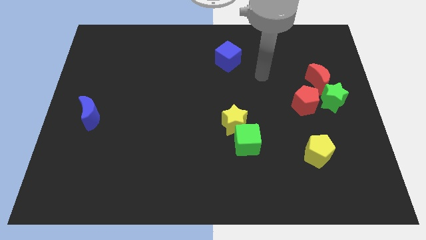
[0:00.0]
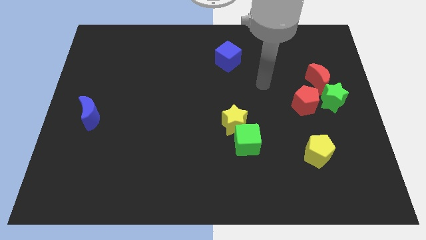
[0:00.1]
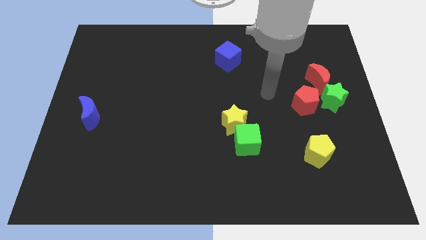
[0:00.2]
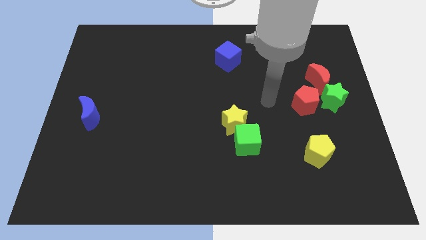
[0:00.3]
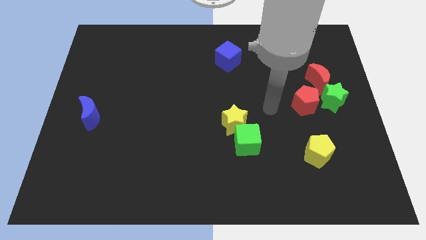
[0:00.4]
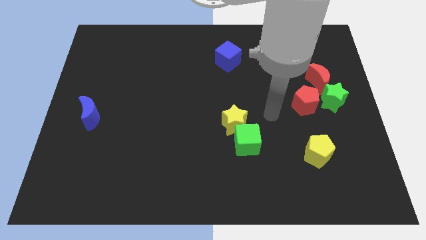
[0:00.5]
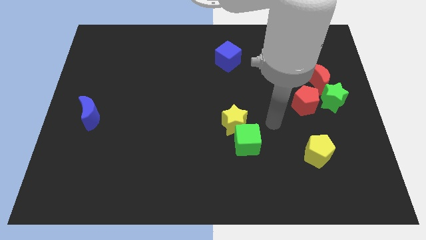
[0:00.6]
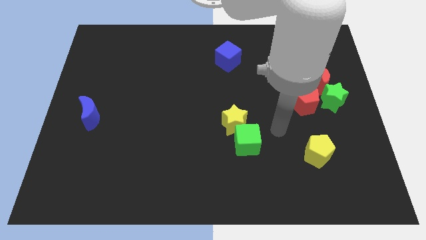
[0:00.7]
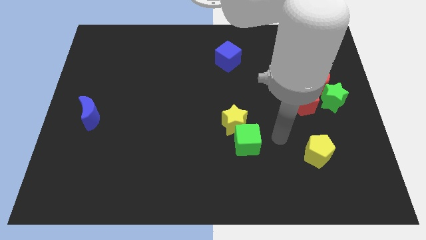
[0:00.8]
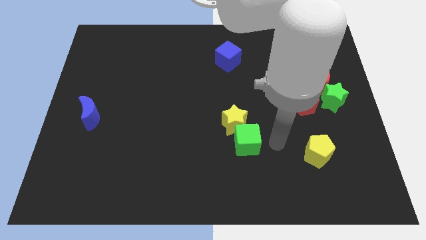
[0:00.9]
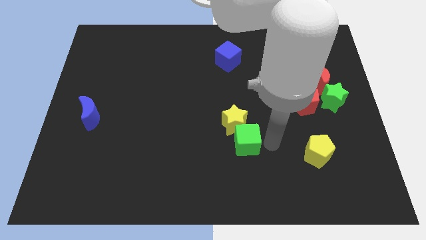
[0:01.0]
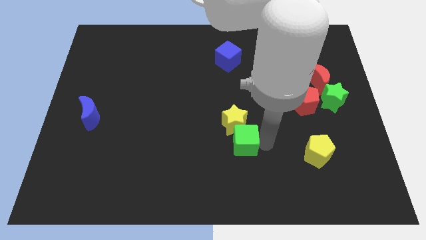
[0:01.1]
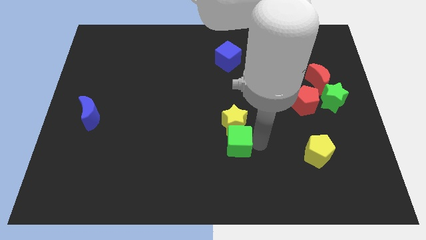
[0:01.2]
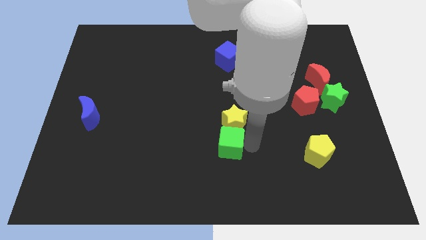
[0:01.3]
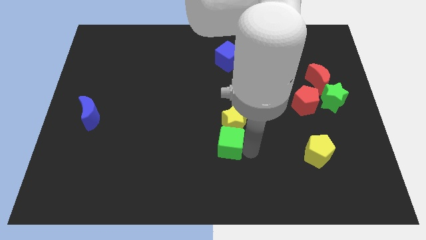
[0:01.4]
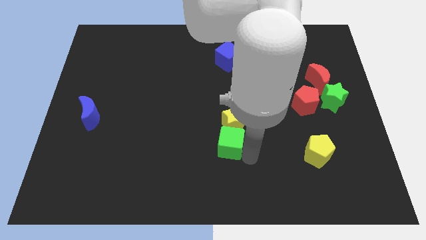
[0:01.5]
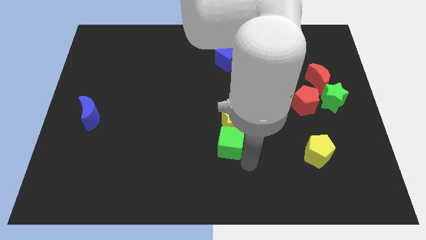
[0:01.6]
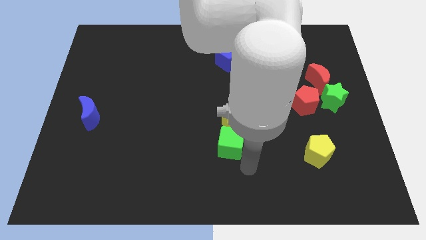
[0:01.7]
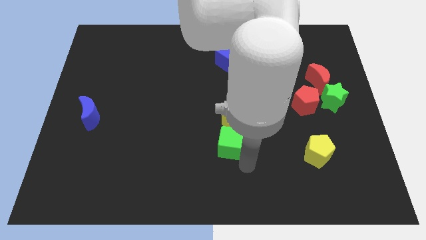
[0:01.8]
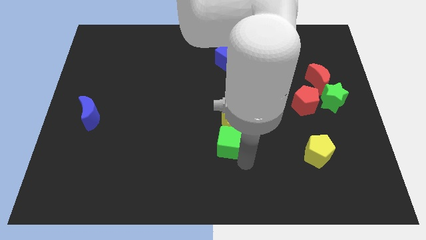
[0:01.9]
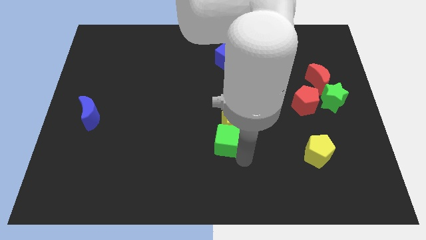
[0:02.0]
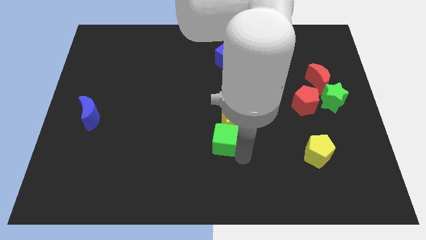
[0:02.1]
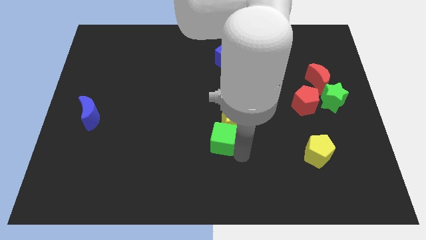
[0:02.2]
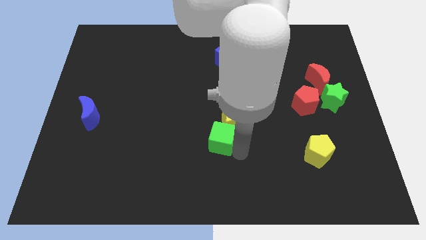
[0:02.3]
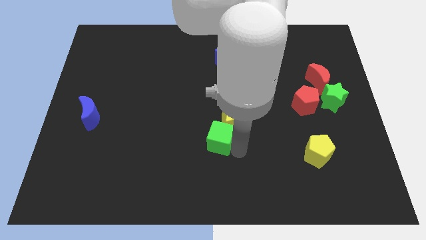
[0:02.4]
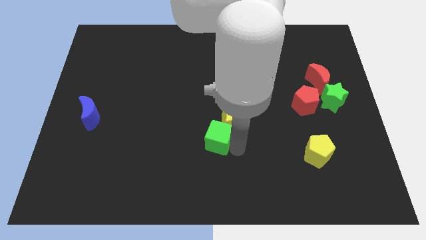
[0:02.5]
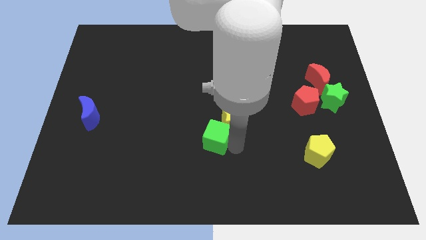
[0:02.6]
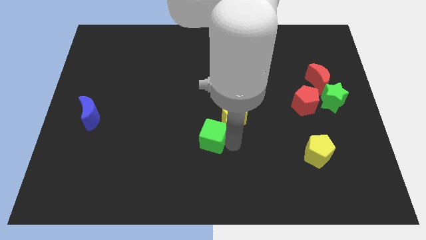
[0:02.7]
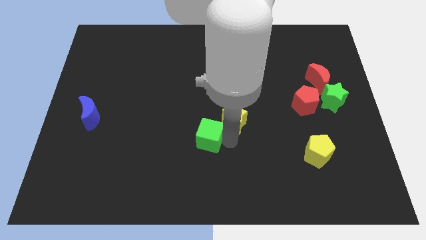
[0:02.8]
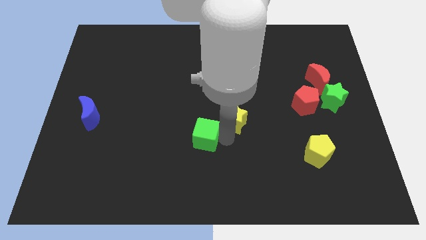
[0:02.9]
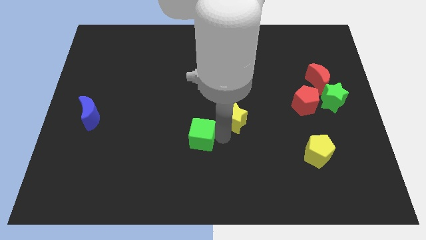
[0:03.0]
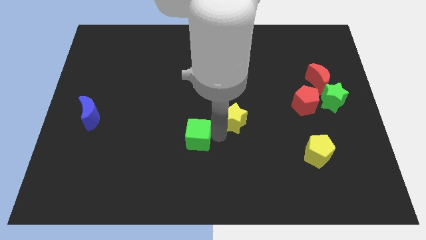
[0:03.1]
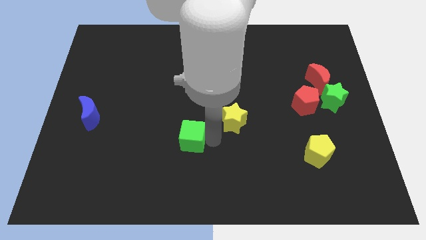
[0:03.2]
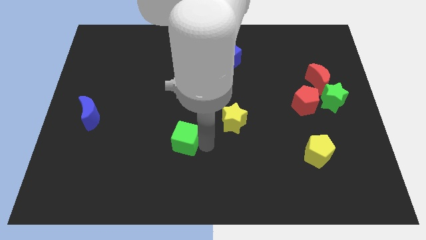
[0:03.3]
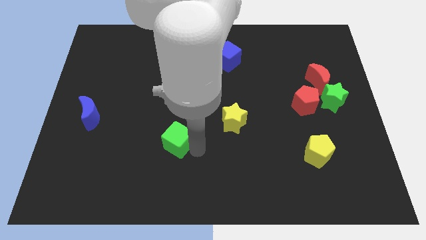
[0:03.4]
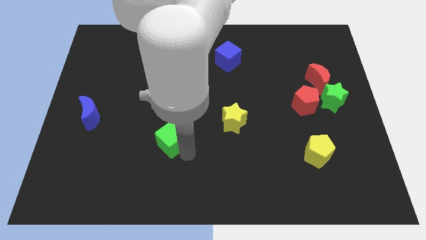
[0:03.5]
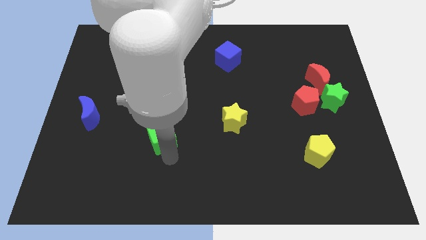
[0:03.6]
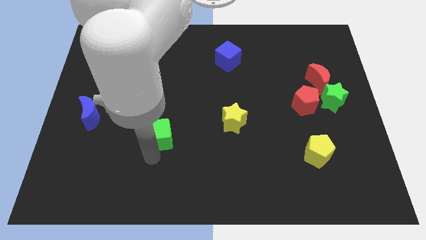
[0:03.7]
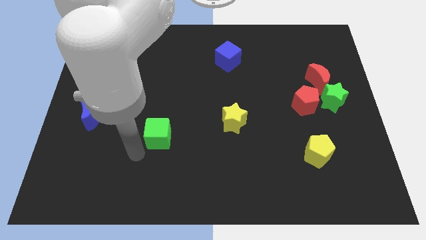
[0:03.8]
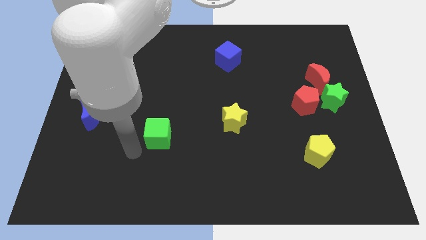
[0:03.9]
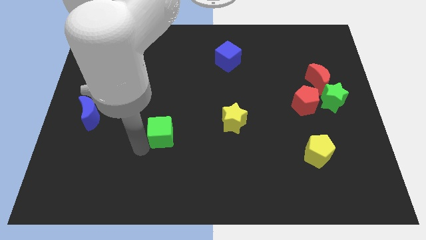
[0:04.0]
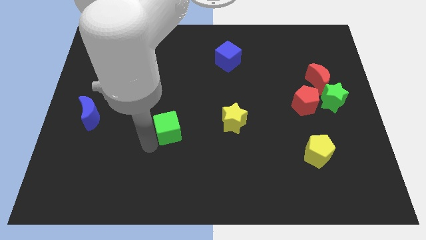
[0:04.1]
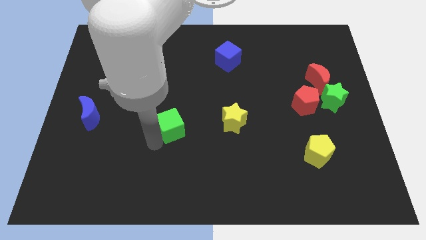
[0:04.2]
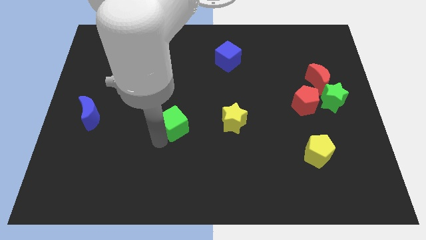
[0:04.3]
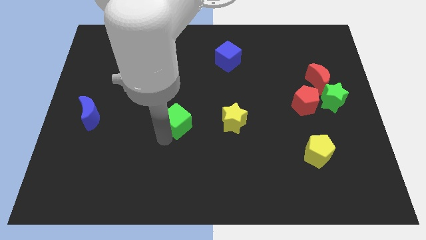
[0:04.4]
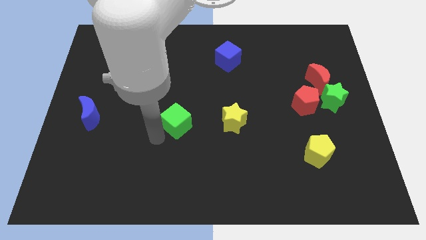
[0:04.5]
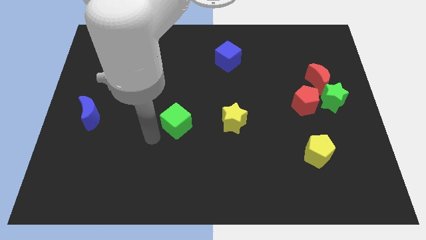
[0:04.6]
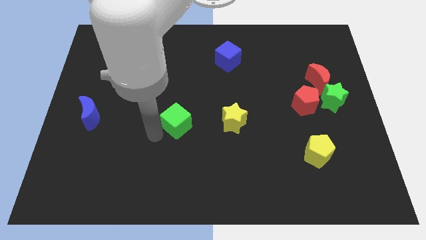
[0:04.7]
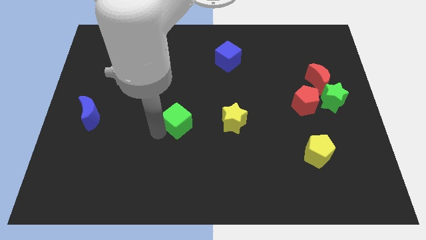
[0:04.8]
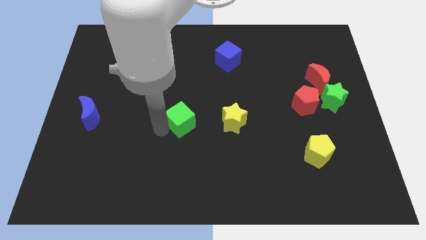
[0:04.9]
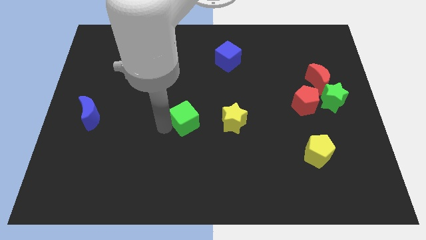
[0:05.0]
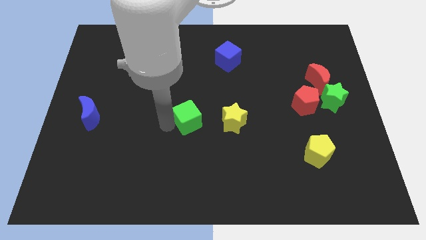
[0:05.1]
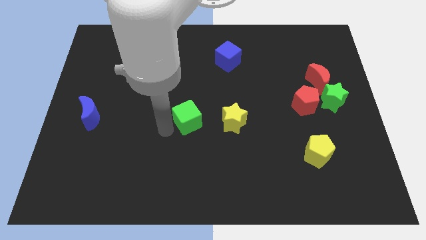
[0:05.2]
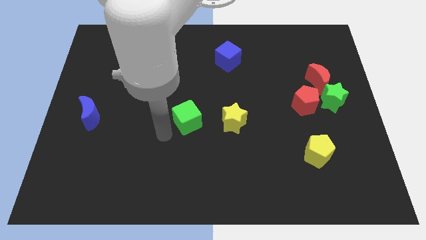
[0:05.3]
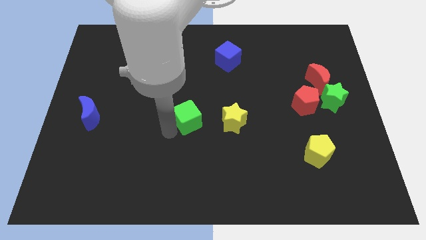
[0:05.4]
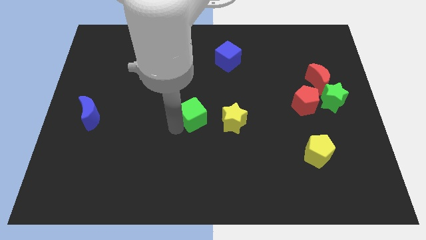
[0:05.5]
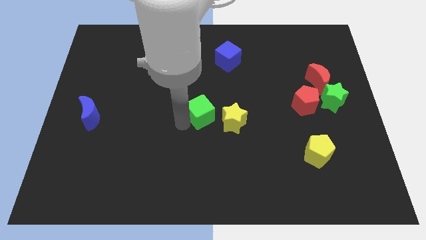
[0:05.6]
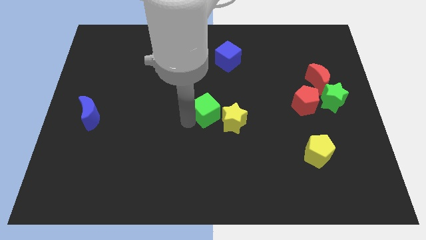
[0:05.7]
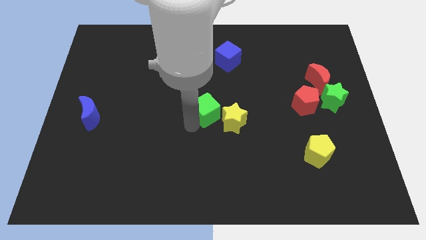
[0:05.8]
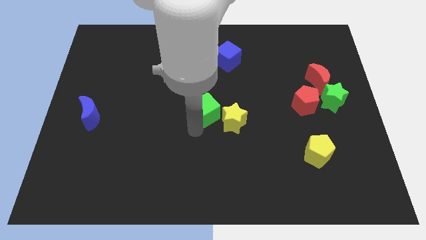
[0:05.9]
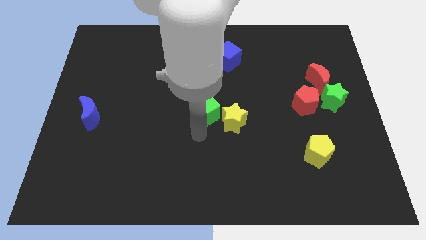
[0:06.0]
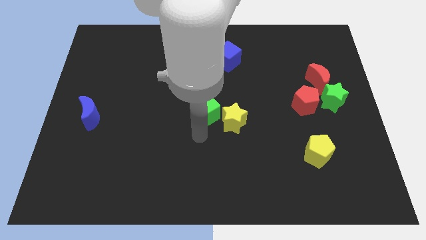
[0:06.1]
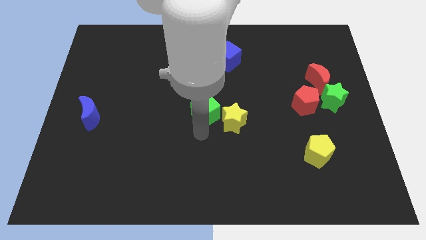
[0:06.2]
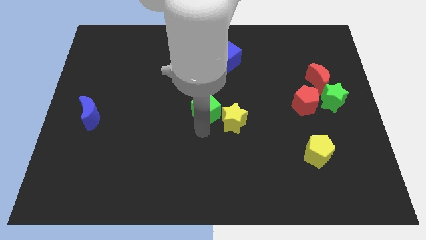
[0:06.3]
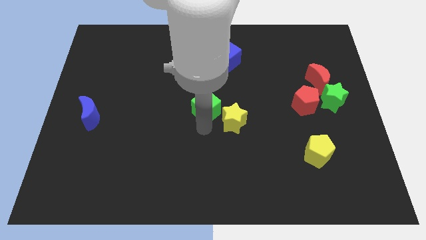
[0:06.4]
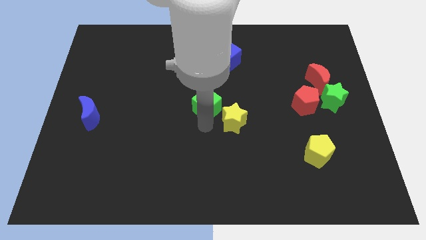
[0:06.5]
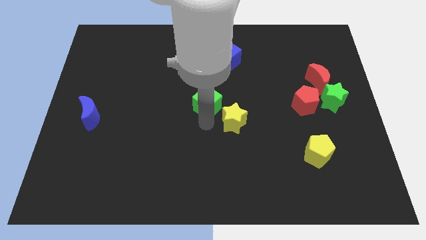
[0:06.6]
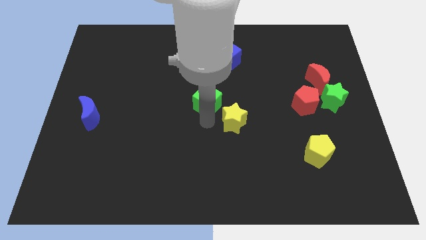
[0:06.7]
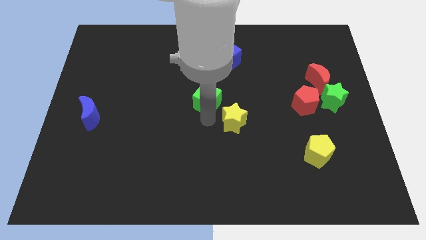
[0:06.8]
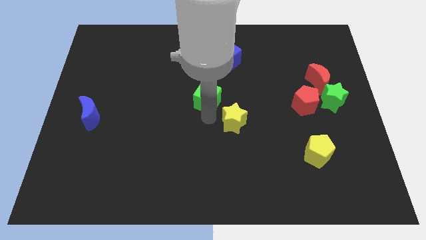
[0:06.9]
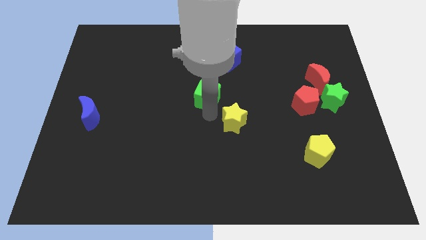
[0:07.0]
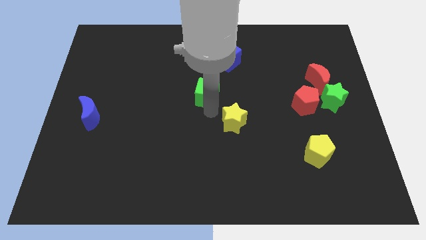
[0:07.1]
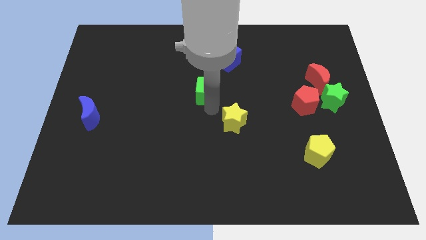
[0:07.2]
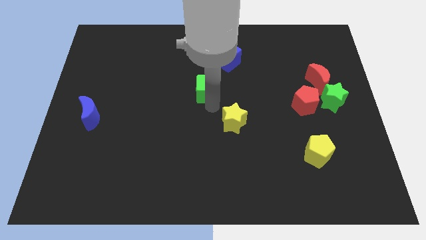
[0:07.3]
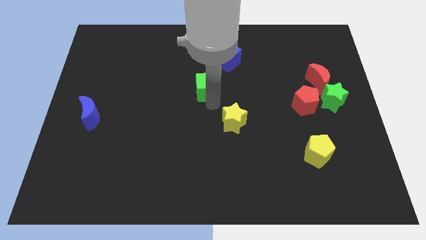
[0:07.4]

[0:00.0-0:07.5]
push the green cube to the bottom left side of the blue cube
